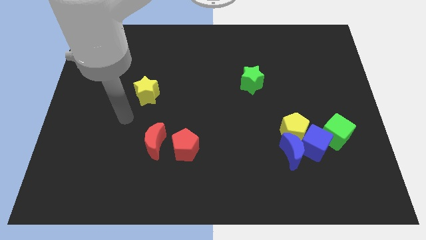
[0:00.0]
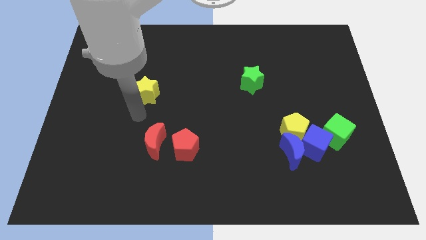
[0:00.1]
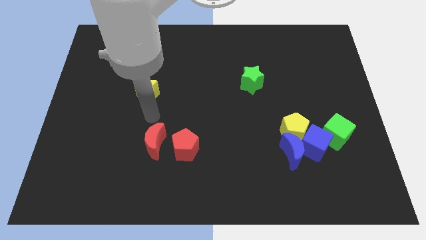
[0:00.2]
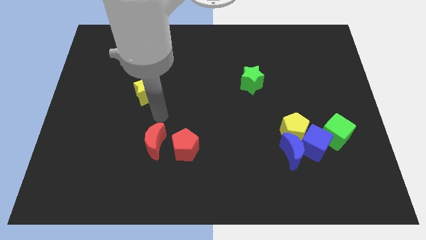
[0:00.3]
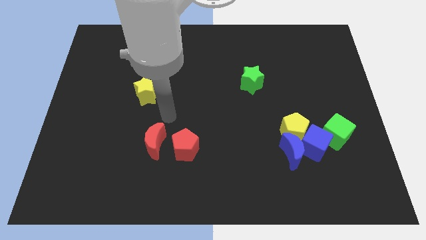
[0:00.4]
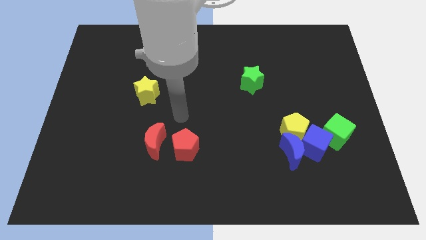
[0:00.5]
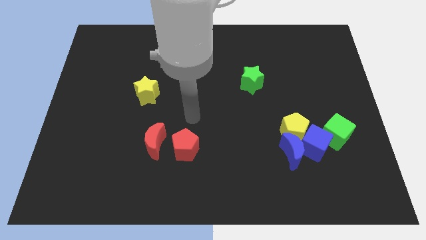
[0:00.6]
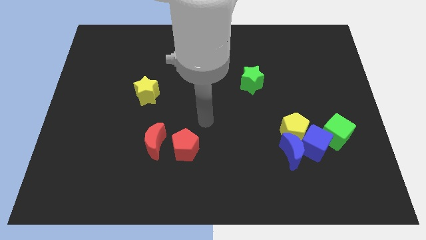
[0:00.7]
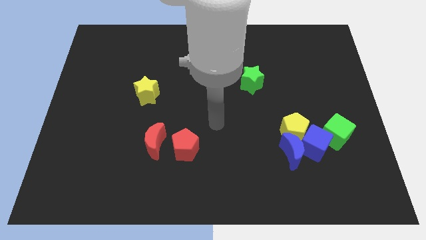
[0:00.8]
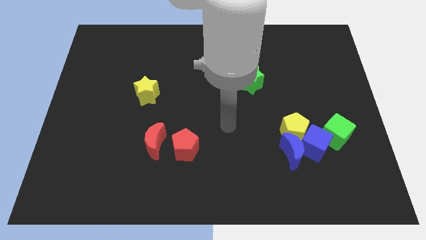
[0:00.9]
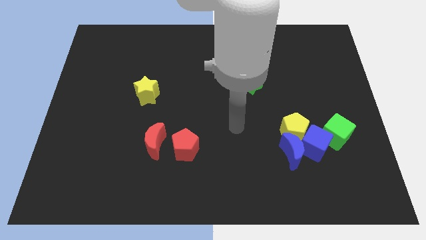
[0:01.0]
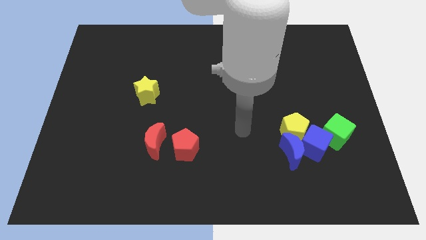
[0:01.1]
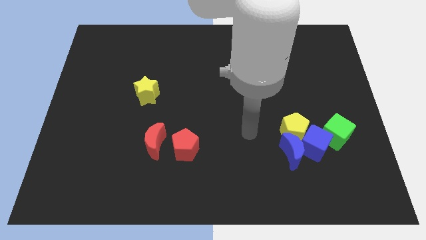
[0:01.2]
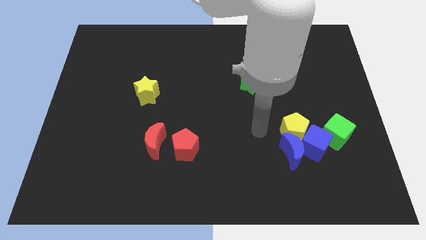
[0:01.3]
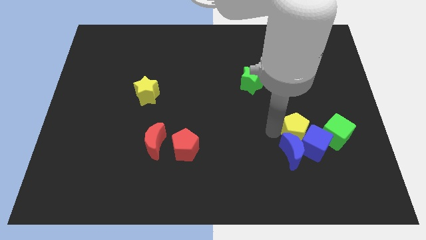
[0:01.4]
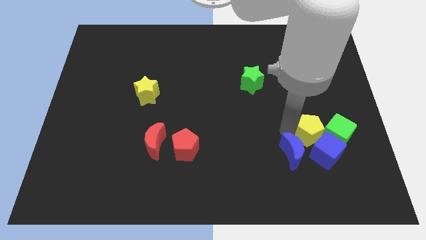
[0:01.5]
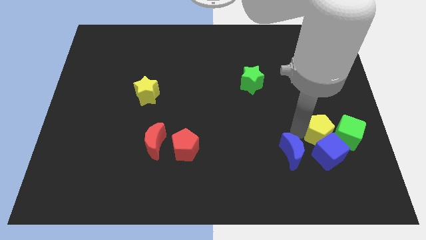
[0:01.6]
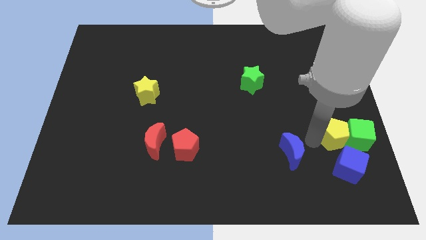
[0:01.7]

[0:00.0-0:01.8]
move the blue moon away from the blue cube and yellow pentagon

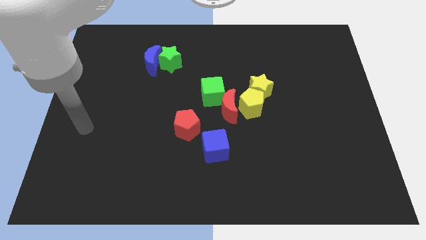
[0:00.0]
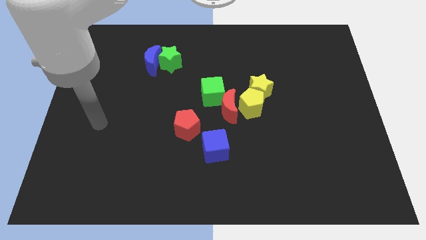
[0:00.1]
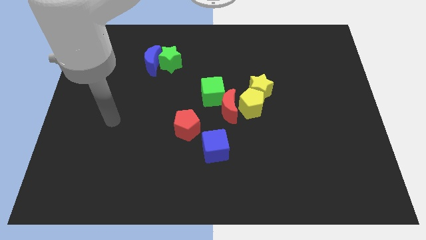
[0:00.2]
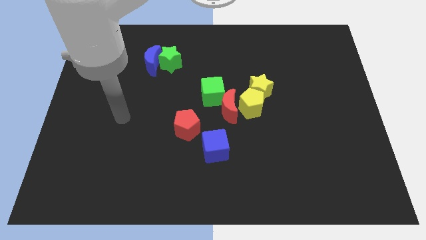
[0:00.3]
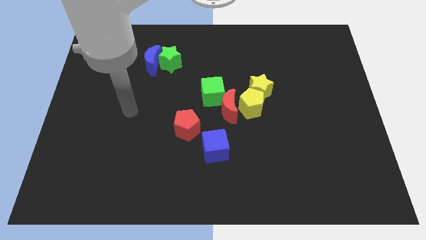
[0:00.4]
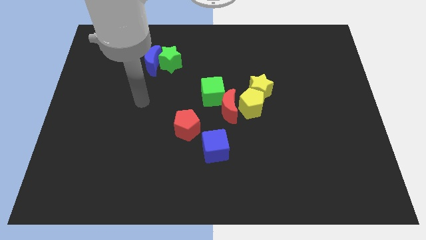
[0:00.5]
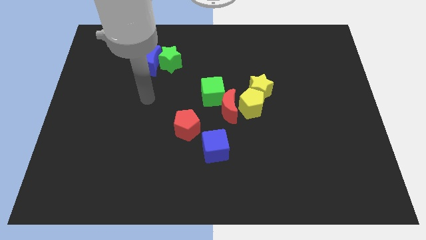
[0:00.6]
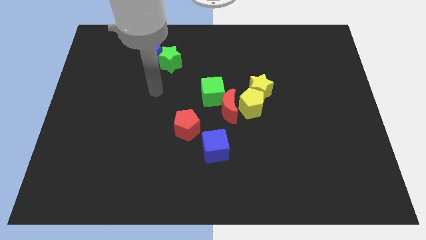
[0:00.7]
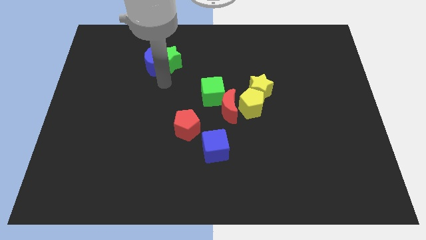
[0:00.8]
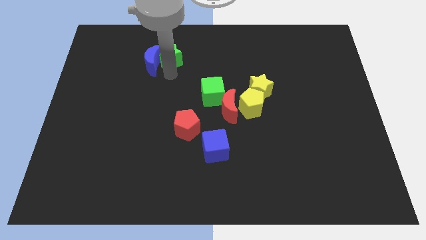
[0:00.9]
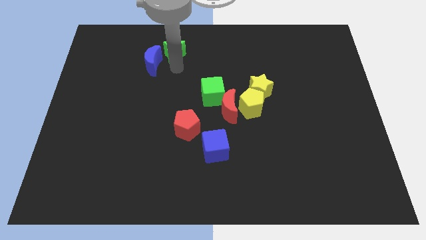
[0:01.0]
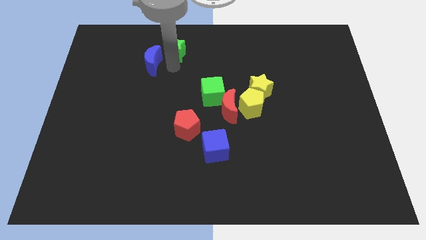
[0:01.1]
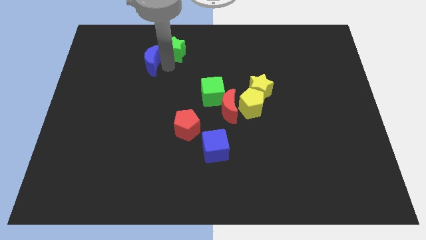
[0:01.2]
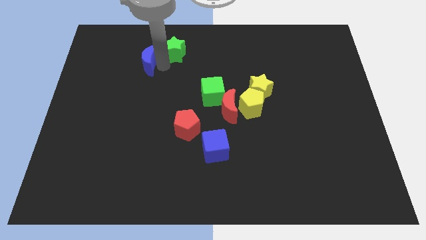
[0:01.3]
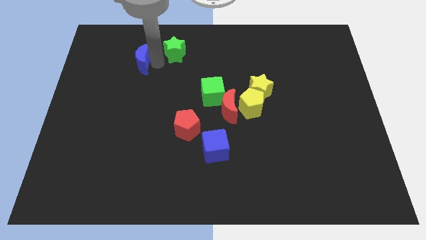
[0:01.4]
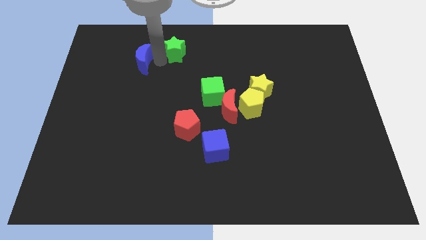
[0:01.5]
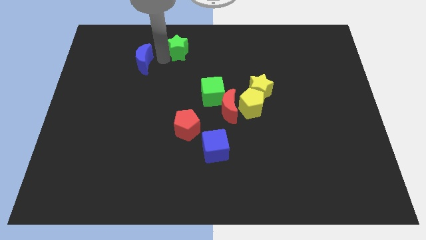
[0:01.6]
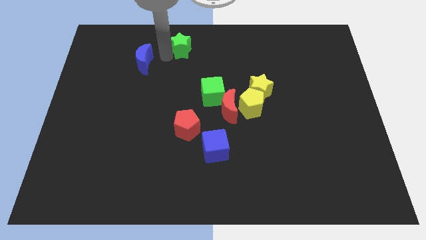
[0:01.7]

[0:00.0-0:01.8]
move the blue moon away from the green star

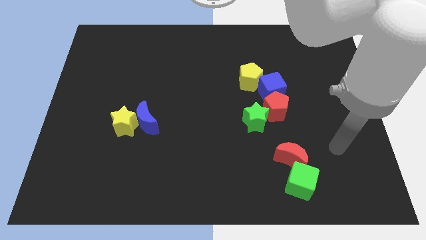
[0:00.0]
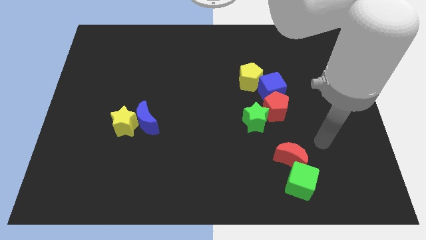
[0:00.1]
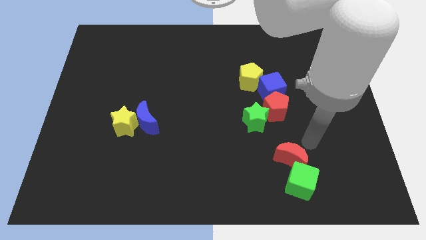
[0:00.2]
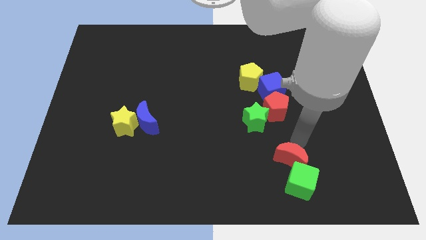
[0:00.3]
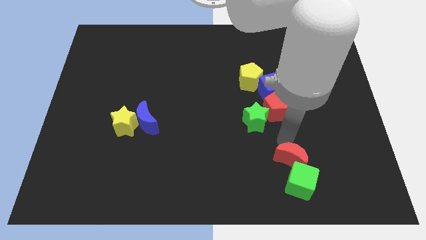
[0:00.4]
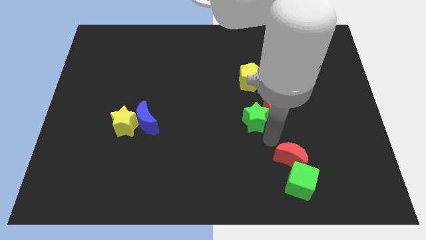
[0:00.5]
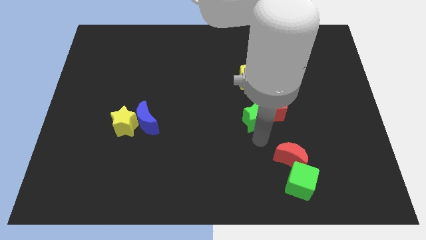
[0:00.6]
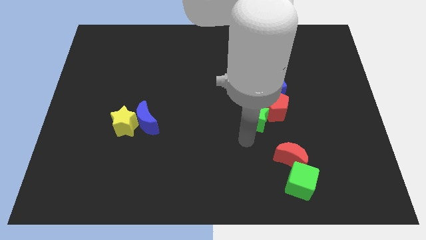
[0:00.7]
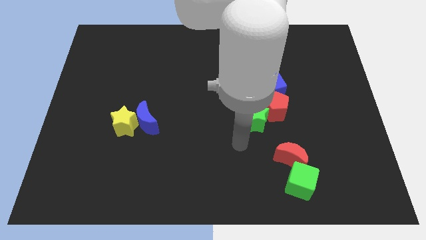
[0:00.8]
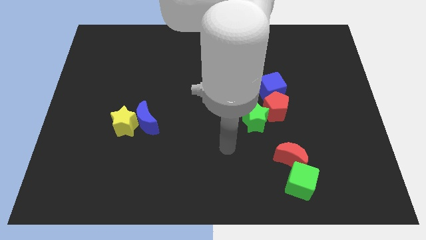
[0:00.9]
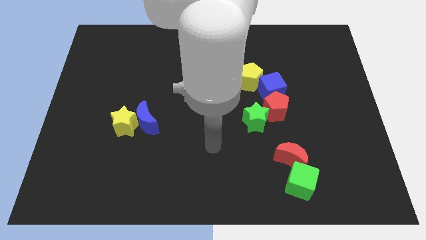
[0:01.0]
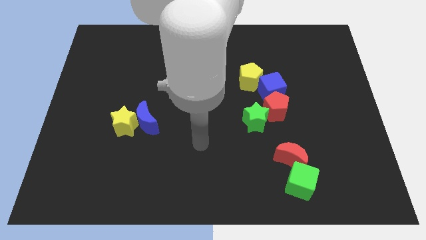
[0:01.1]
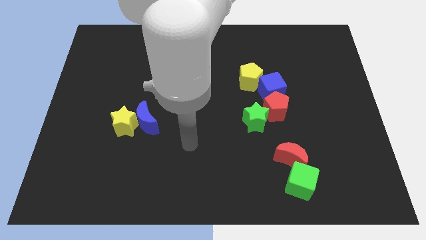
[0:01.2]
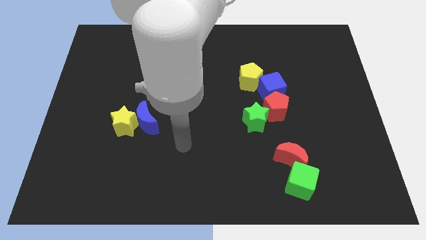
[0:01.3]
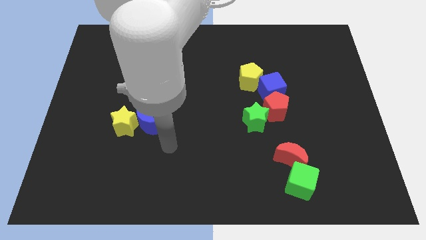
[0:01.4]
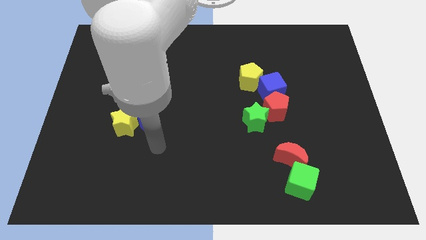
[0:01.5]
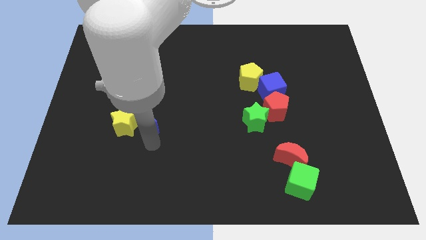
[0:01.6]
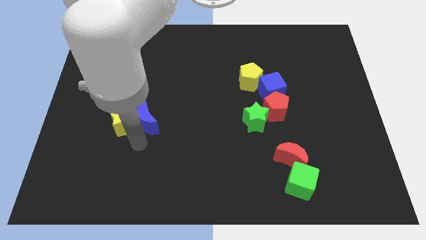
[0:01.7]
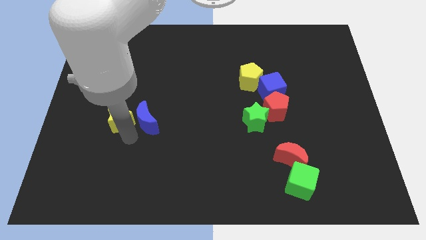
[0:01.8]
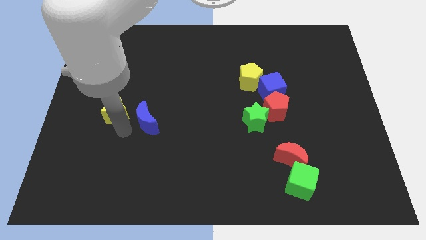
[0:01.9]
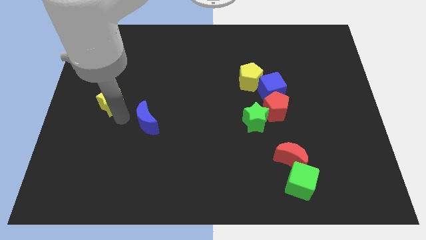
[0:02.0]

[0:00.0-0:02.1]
move the blue moon away from the yellow star

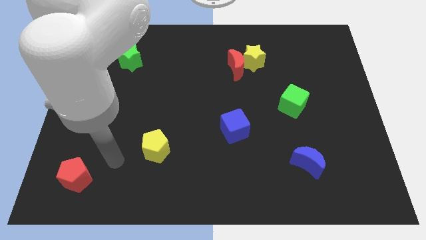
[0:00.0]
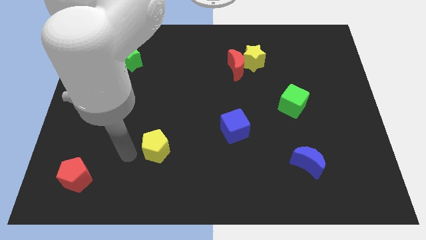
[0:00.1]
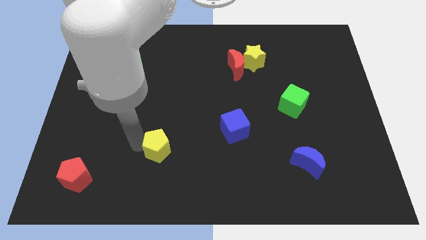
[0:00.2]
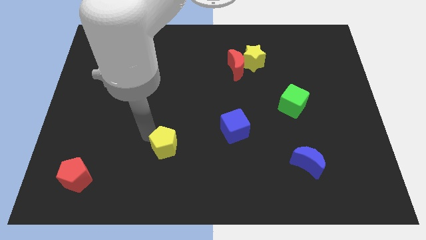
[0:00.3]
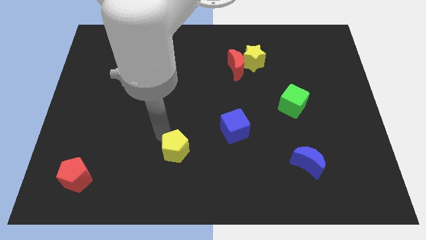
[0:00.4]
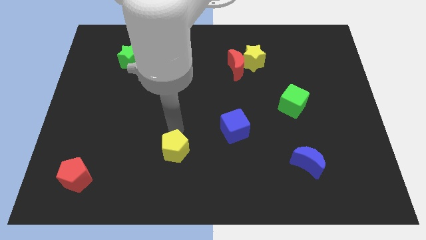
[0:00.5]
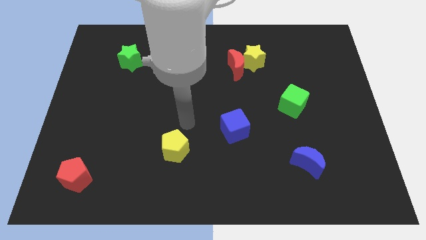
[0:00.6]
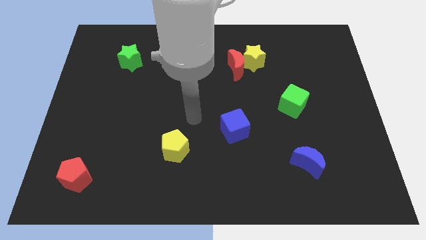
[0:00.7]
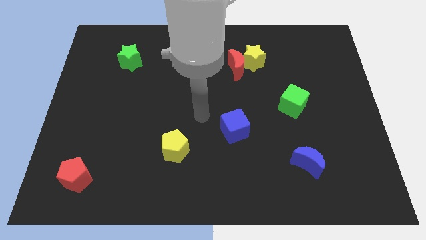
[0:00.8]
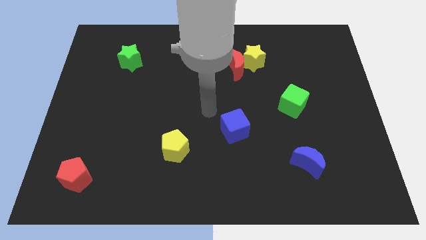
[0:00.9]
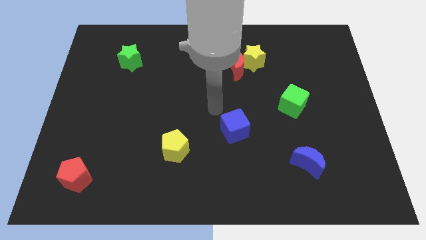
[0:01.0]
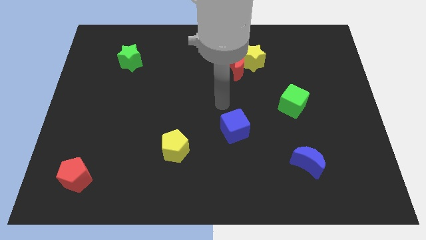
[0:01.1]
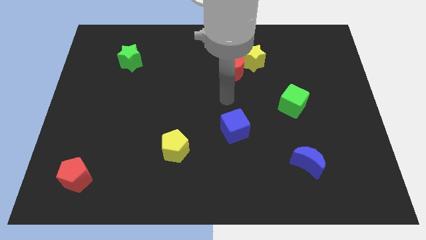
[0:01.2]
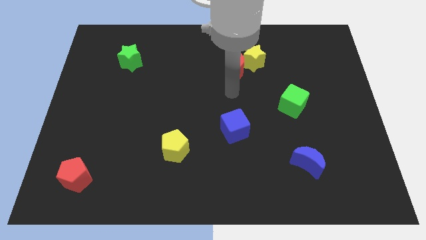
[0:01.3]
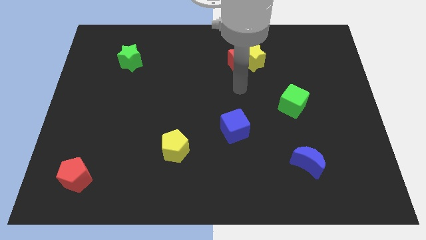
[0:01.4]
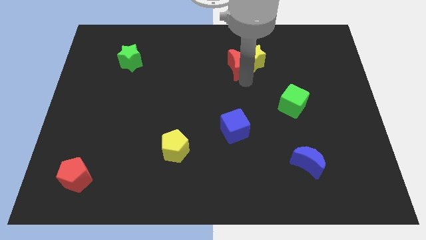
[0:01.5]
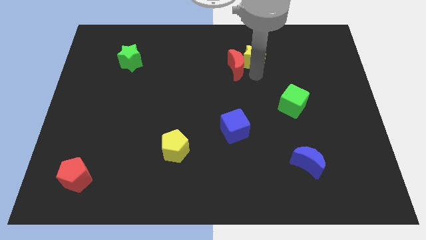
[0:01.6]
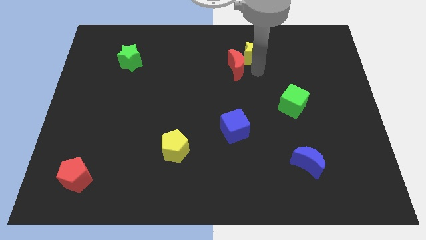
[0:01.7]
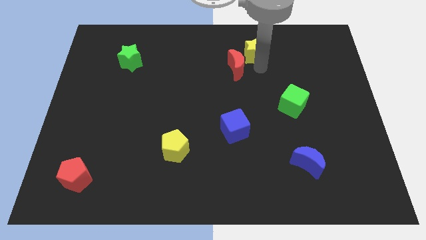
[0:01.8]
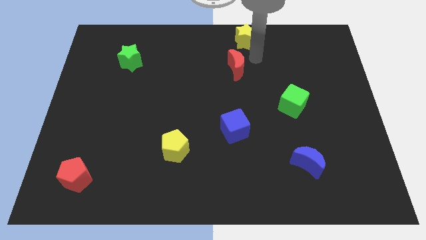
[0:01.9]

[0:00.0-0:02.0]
separate the red moon from the yellow star

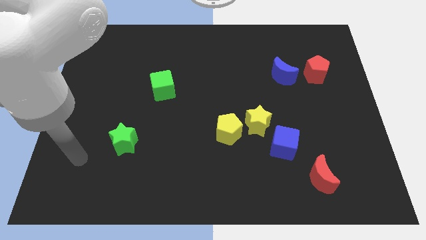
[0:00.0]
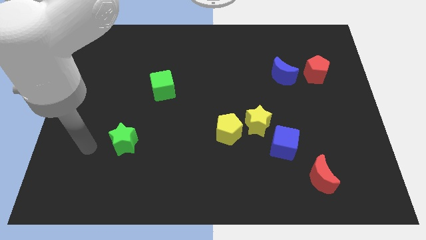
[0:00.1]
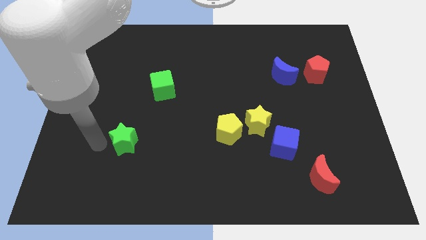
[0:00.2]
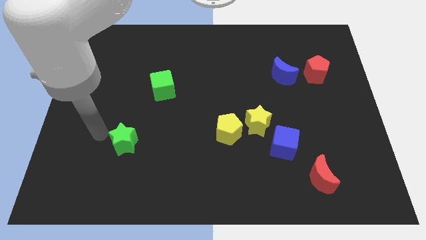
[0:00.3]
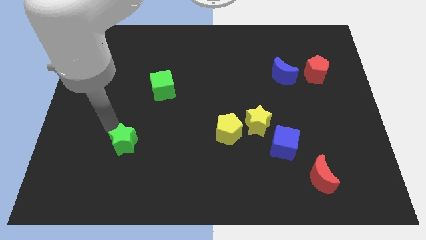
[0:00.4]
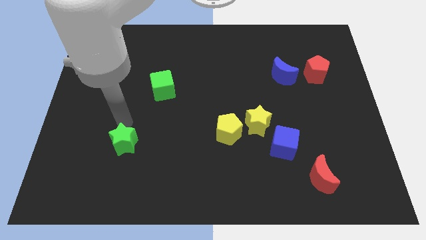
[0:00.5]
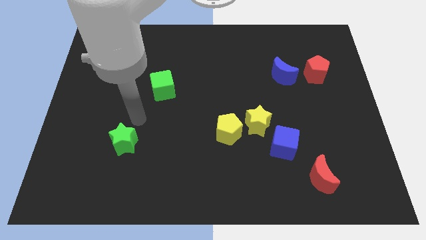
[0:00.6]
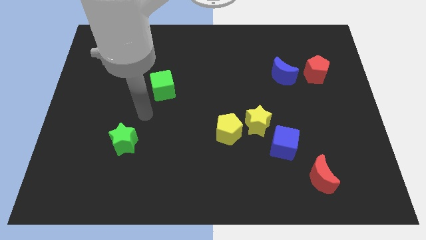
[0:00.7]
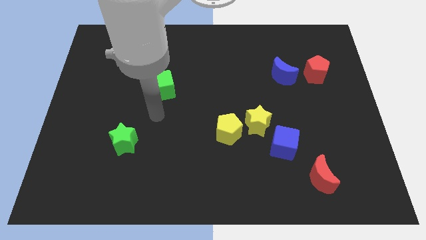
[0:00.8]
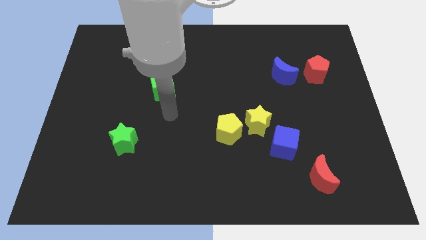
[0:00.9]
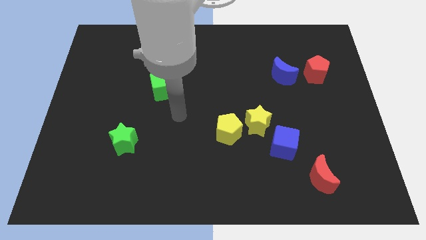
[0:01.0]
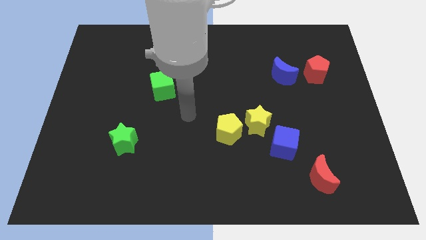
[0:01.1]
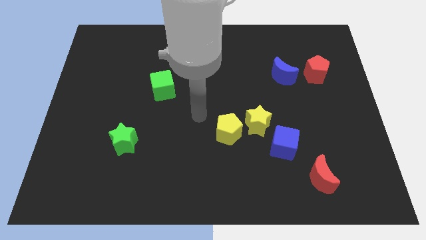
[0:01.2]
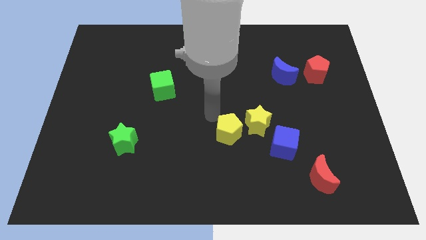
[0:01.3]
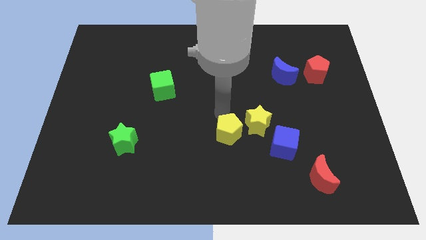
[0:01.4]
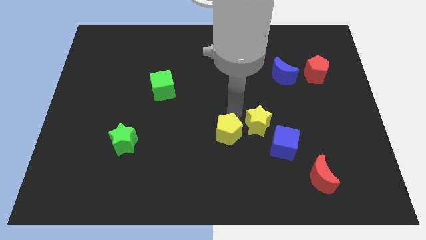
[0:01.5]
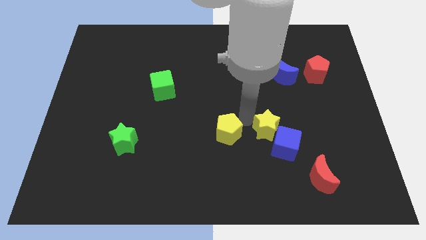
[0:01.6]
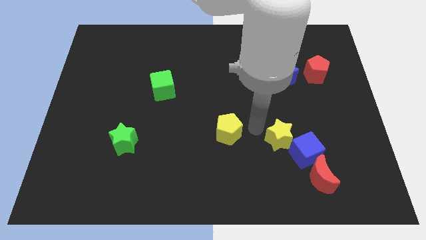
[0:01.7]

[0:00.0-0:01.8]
pull the yellow pentagon apart from the yellow star
